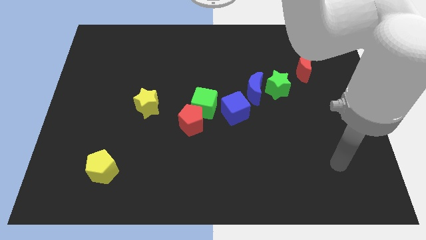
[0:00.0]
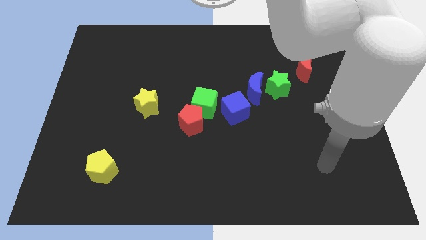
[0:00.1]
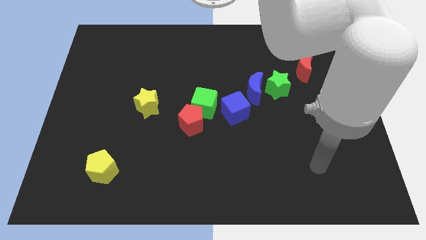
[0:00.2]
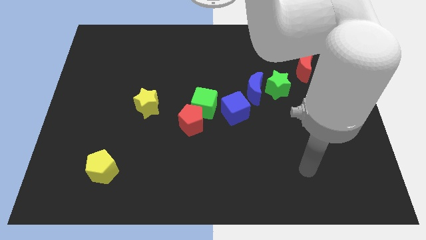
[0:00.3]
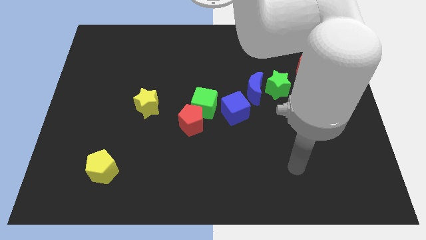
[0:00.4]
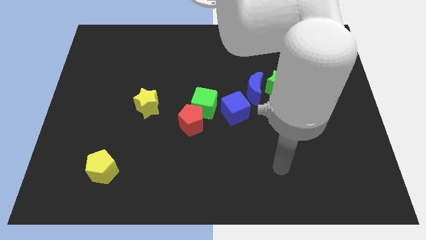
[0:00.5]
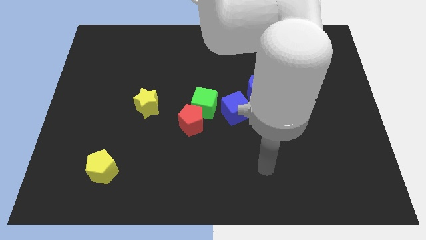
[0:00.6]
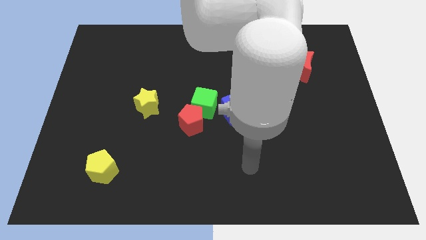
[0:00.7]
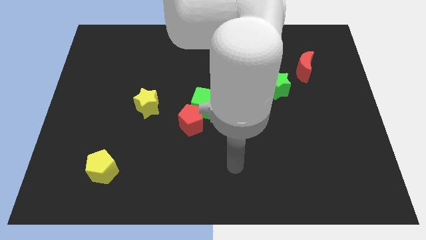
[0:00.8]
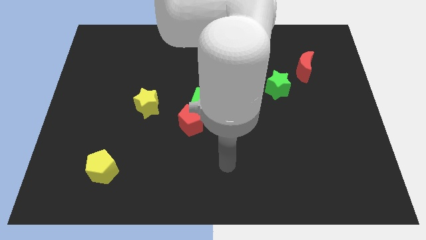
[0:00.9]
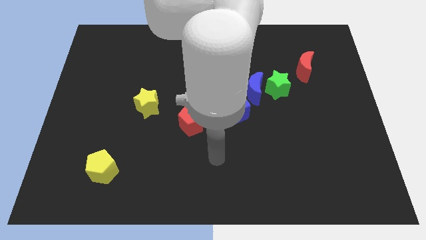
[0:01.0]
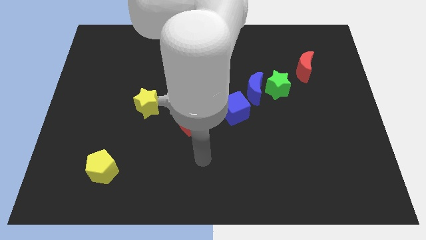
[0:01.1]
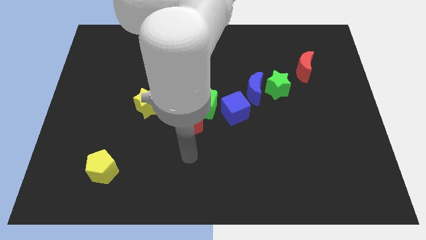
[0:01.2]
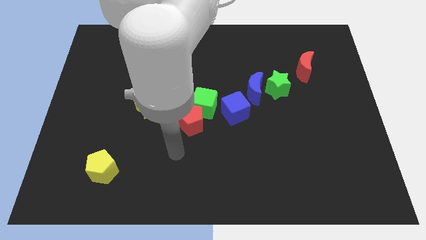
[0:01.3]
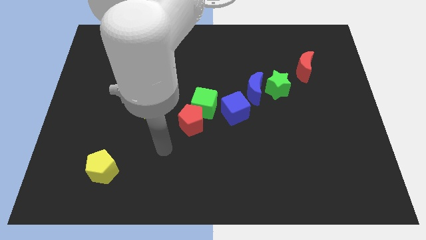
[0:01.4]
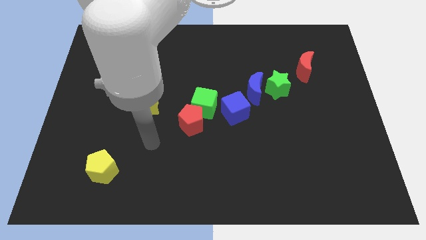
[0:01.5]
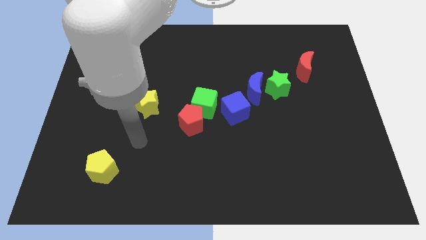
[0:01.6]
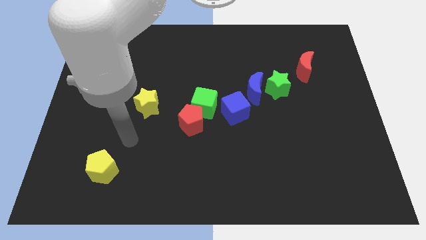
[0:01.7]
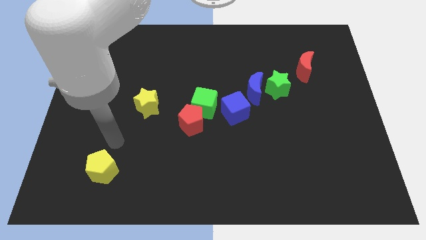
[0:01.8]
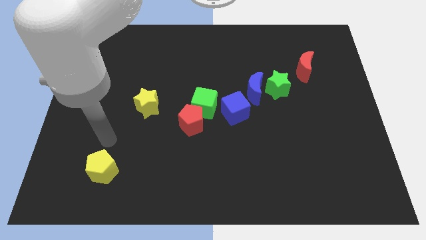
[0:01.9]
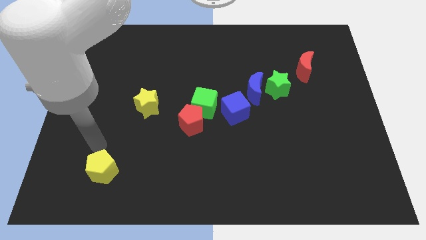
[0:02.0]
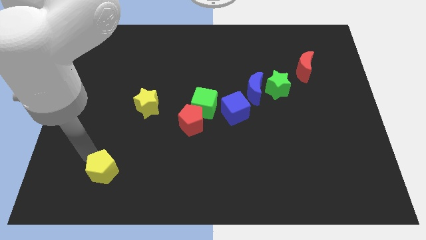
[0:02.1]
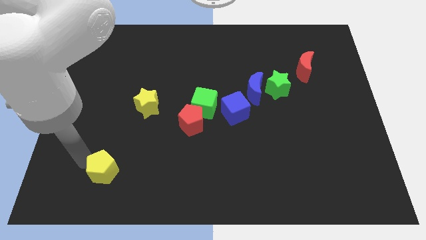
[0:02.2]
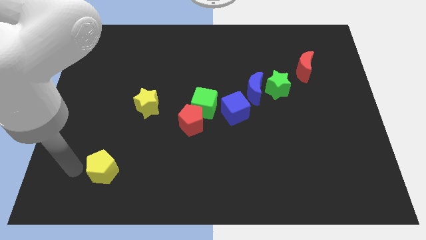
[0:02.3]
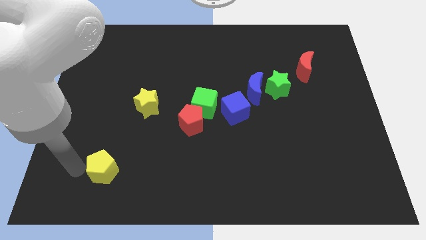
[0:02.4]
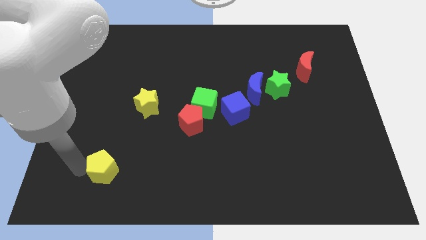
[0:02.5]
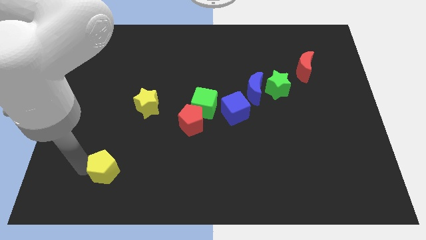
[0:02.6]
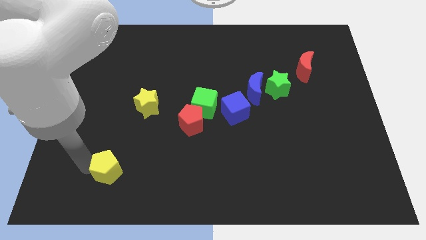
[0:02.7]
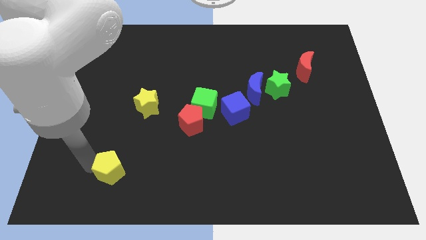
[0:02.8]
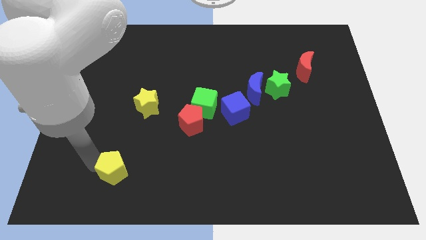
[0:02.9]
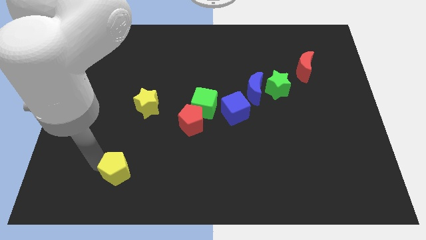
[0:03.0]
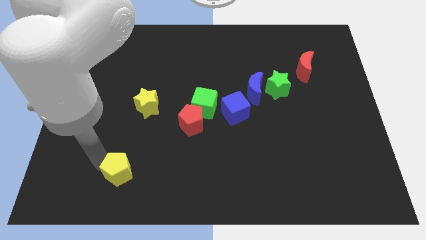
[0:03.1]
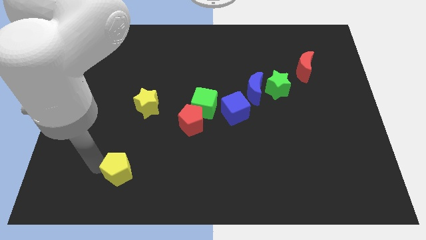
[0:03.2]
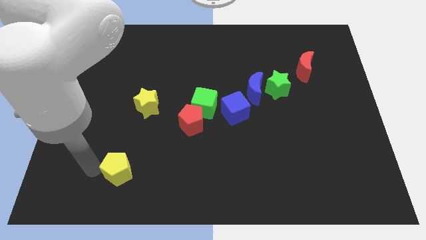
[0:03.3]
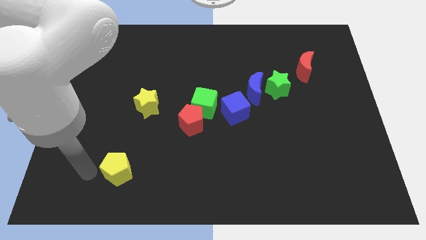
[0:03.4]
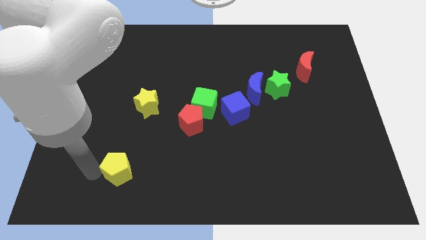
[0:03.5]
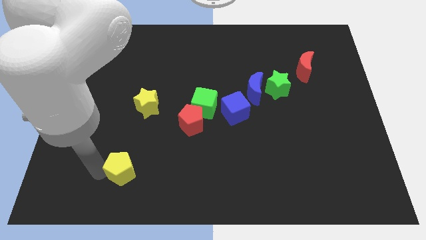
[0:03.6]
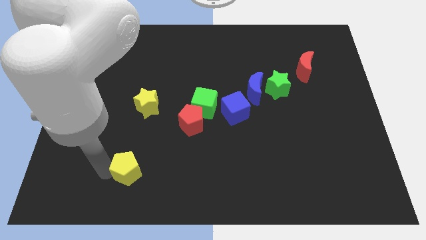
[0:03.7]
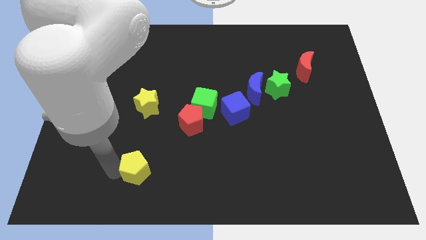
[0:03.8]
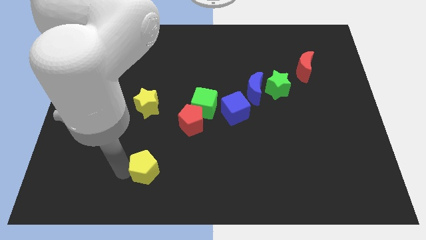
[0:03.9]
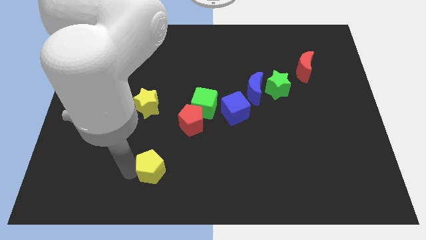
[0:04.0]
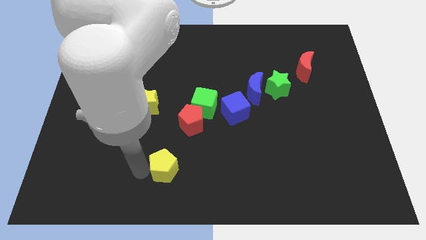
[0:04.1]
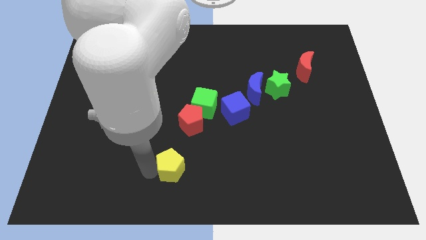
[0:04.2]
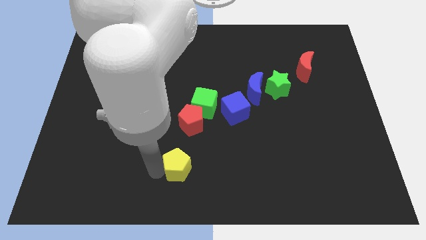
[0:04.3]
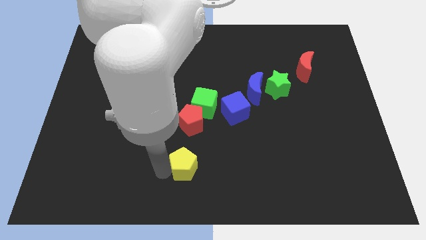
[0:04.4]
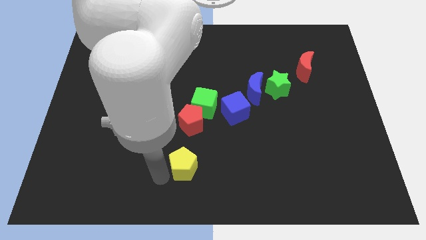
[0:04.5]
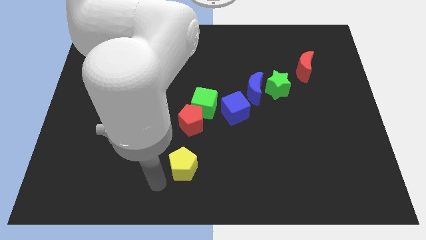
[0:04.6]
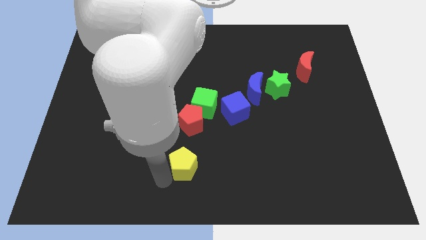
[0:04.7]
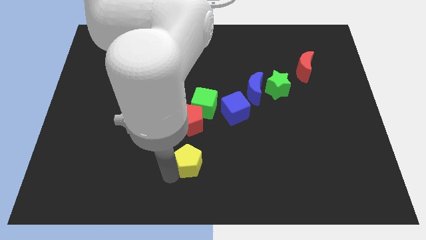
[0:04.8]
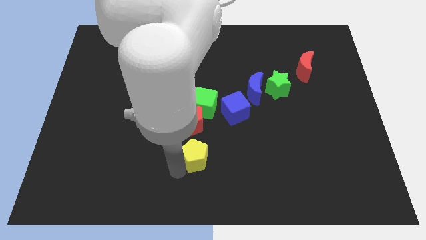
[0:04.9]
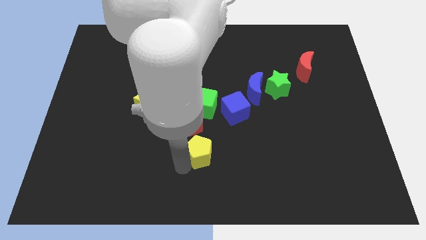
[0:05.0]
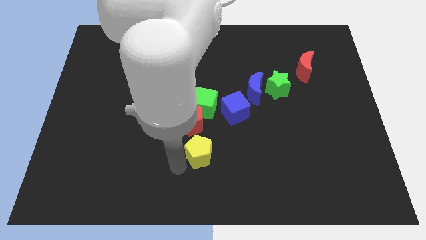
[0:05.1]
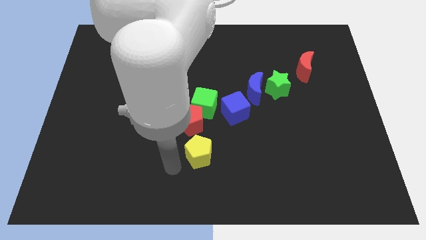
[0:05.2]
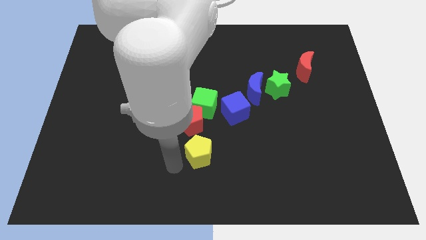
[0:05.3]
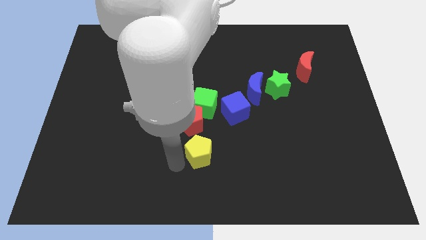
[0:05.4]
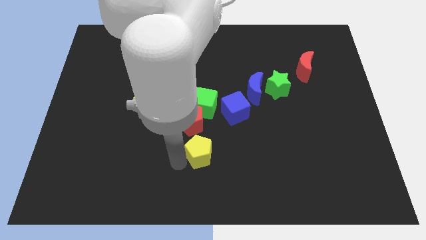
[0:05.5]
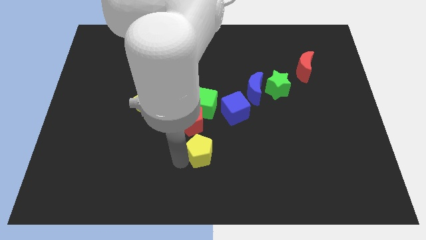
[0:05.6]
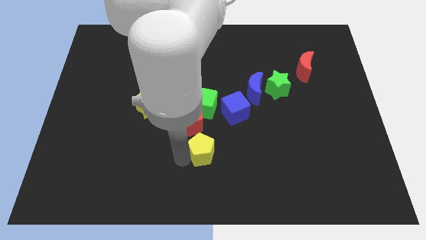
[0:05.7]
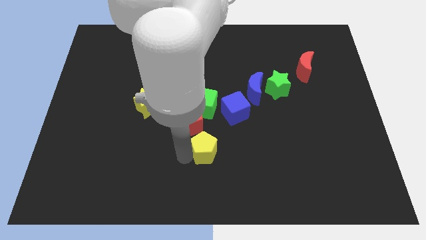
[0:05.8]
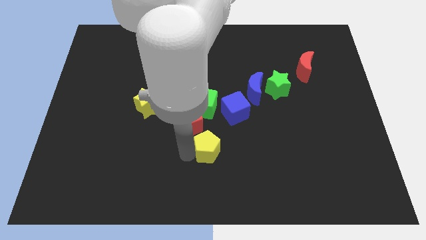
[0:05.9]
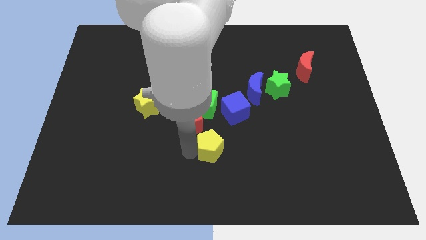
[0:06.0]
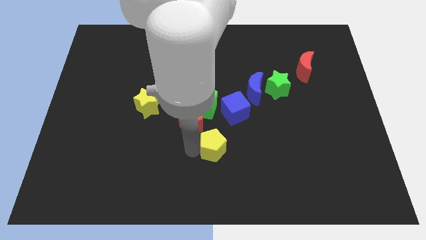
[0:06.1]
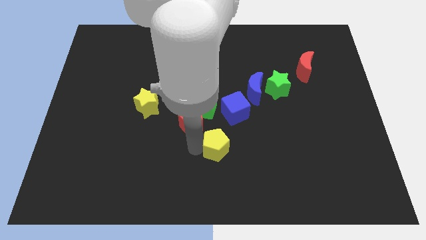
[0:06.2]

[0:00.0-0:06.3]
put the yellow pentagon to the bottom of the blue cube
